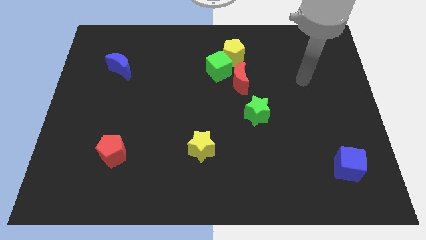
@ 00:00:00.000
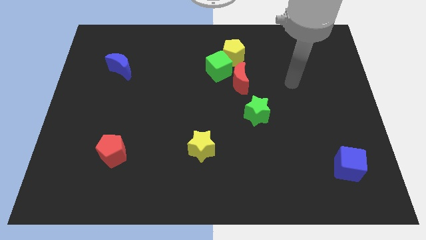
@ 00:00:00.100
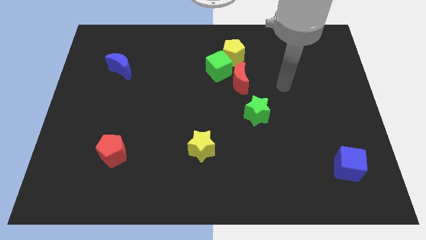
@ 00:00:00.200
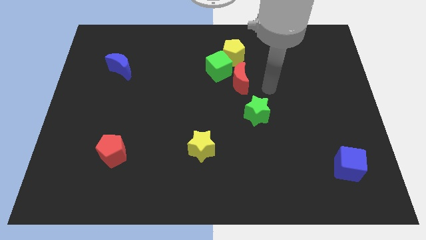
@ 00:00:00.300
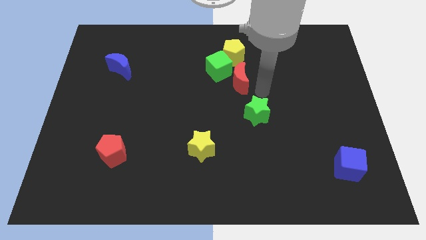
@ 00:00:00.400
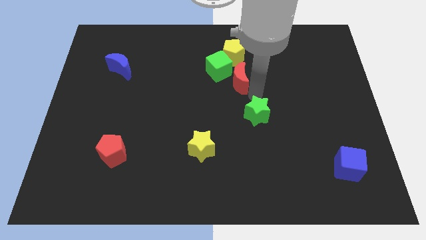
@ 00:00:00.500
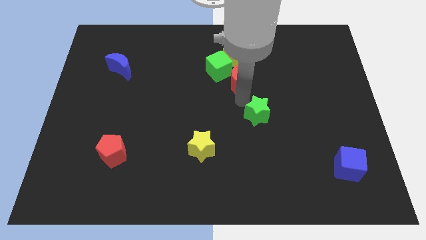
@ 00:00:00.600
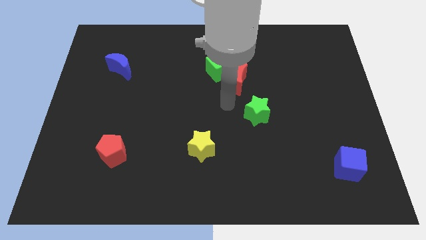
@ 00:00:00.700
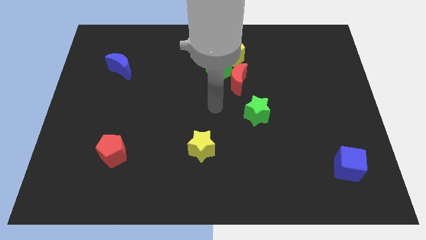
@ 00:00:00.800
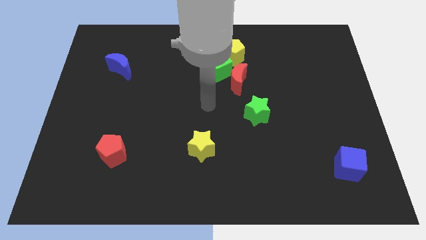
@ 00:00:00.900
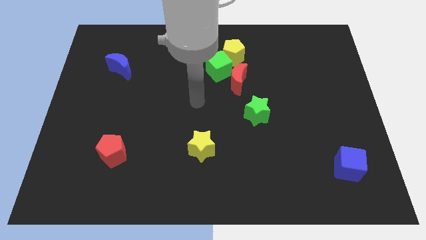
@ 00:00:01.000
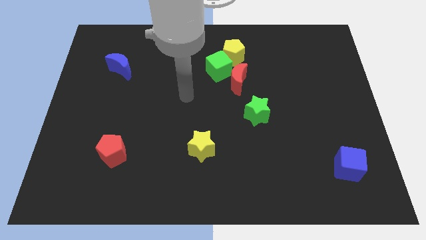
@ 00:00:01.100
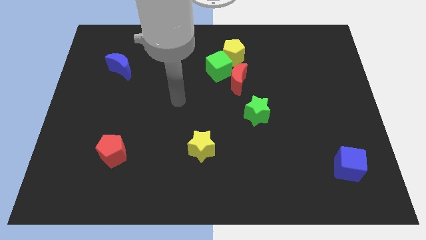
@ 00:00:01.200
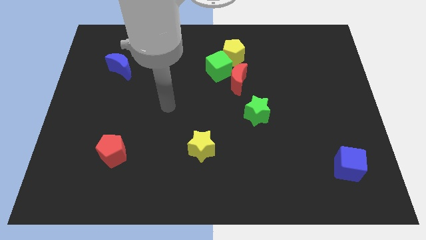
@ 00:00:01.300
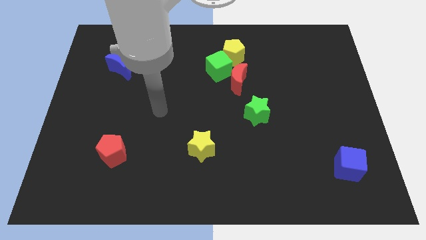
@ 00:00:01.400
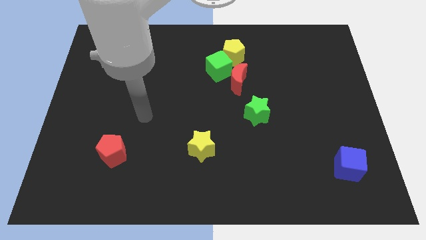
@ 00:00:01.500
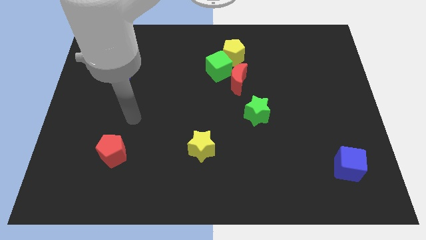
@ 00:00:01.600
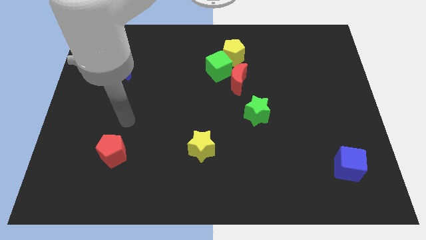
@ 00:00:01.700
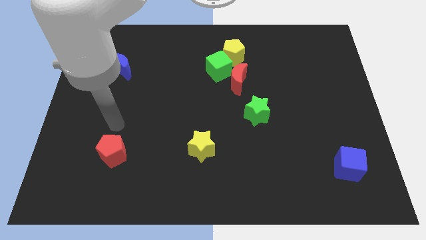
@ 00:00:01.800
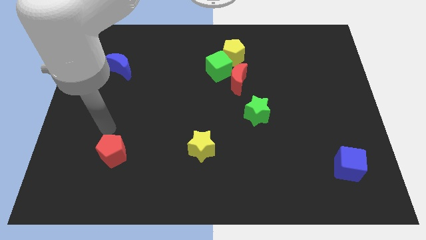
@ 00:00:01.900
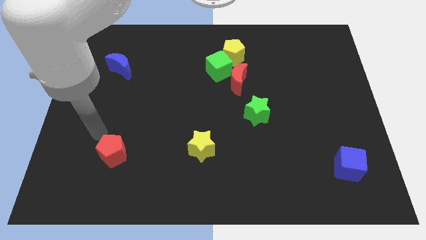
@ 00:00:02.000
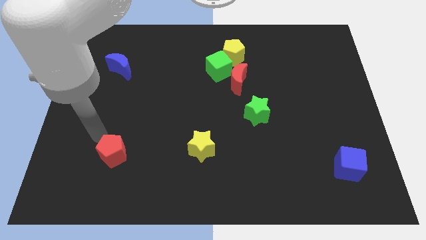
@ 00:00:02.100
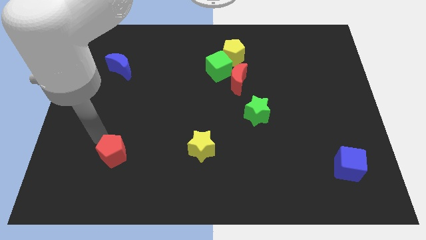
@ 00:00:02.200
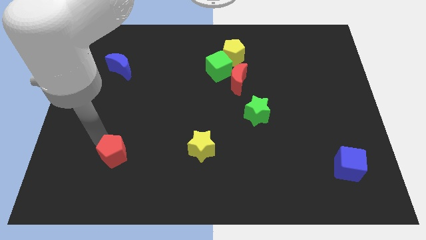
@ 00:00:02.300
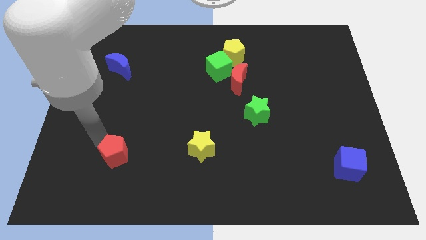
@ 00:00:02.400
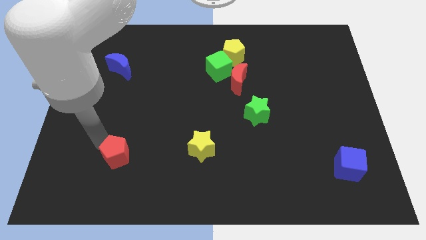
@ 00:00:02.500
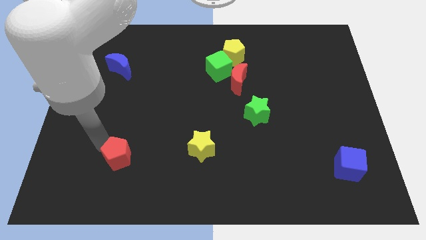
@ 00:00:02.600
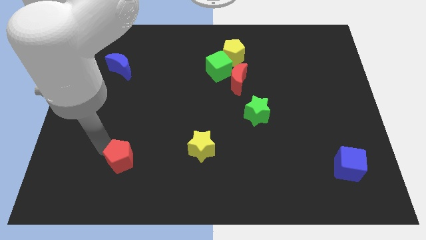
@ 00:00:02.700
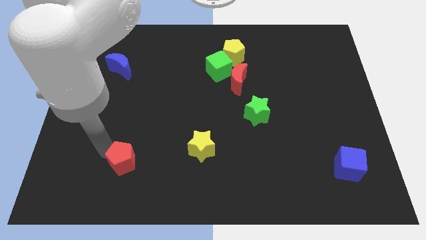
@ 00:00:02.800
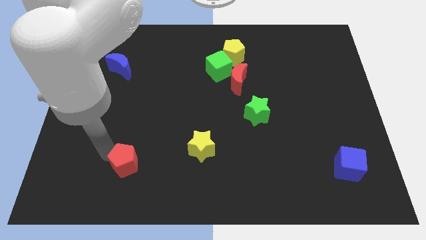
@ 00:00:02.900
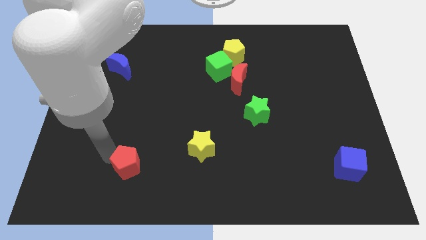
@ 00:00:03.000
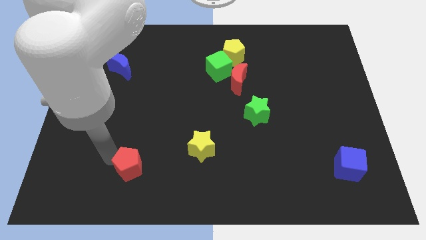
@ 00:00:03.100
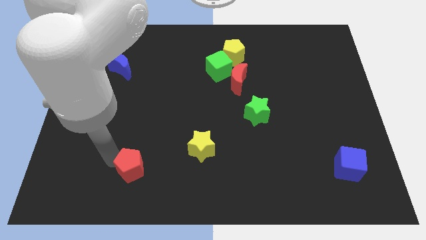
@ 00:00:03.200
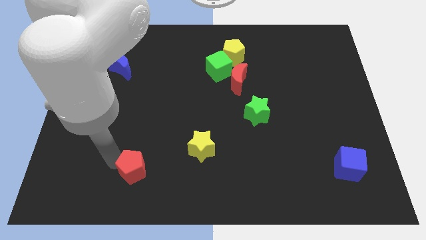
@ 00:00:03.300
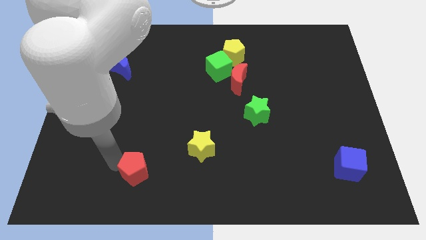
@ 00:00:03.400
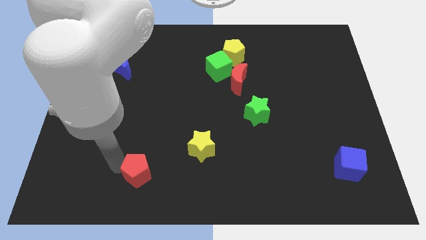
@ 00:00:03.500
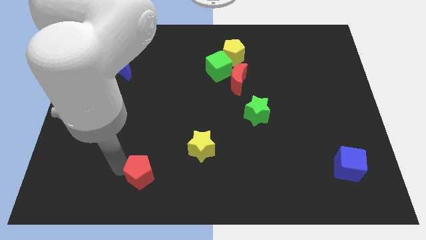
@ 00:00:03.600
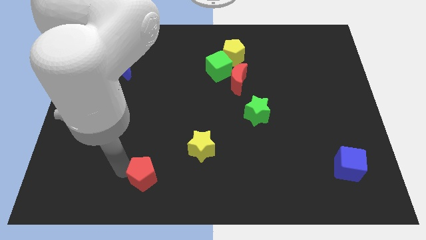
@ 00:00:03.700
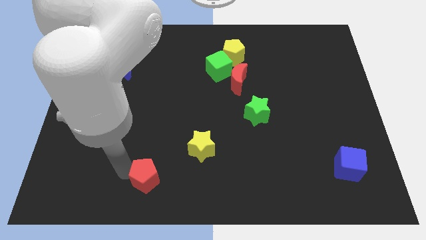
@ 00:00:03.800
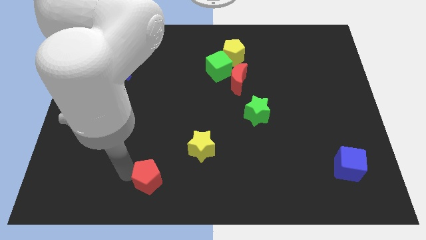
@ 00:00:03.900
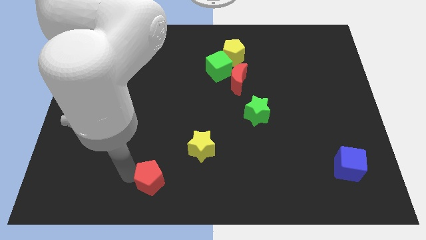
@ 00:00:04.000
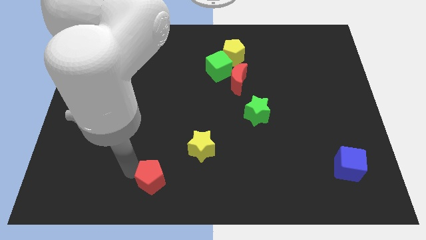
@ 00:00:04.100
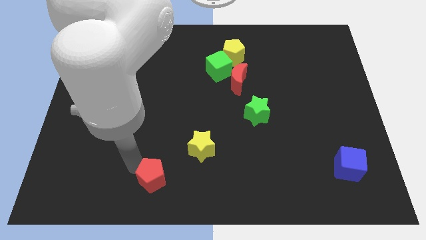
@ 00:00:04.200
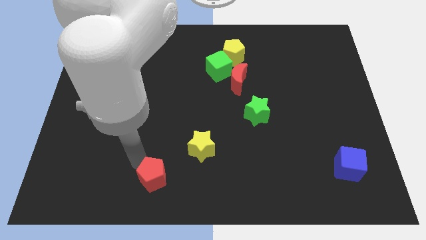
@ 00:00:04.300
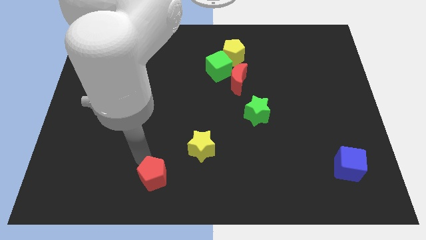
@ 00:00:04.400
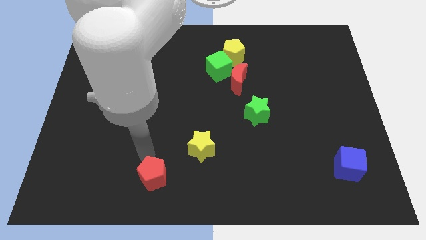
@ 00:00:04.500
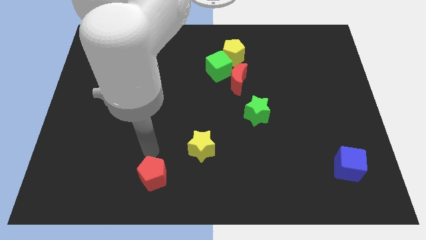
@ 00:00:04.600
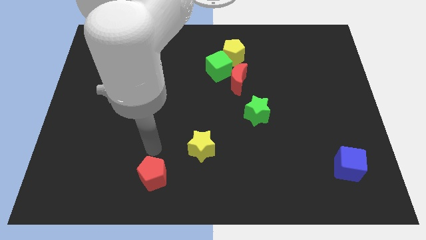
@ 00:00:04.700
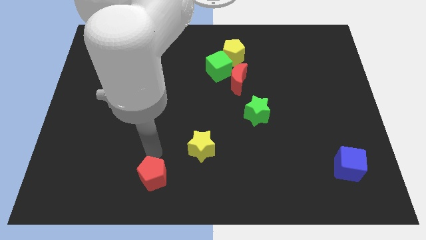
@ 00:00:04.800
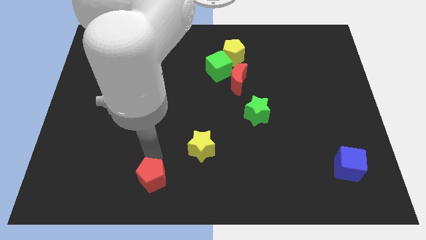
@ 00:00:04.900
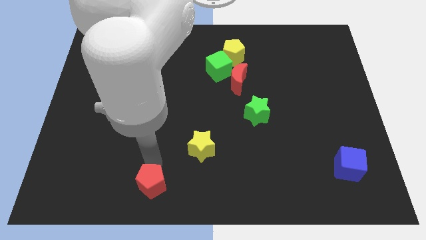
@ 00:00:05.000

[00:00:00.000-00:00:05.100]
slide the red pentagon to the bottom

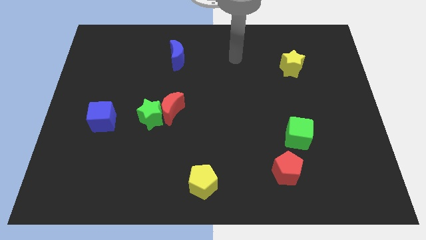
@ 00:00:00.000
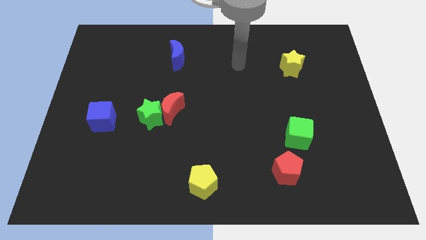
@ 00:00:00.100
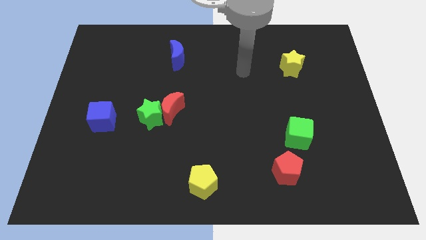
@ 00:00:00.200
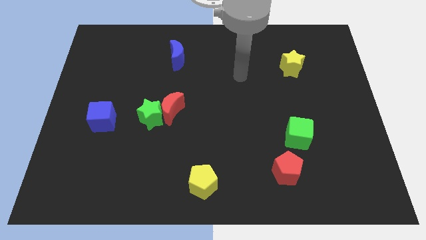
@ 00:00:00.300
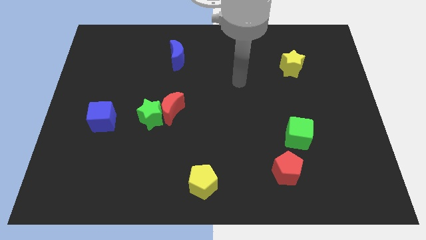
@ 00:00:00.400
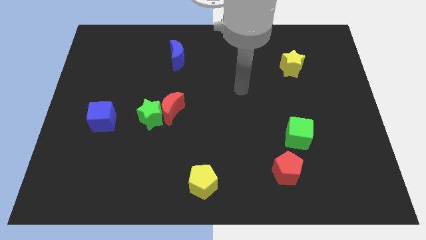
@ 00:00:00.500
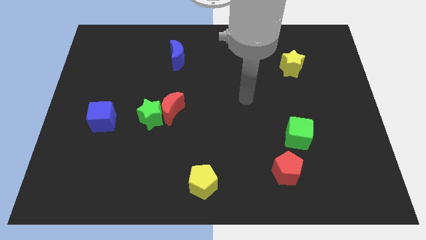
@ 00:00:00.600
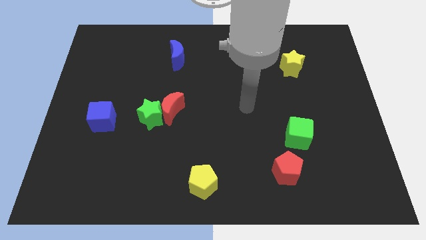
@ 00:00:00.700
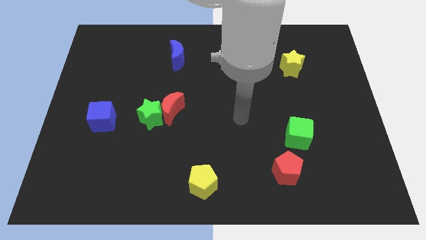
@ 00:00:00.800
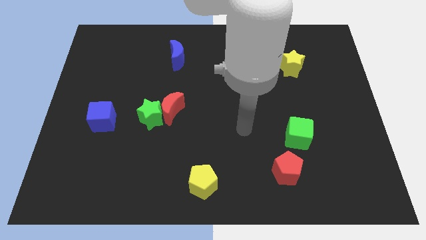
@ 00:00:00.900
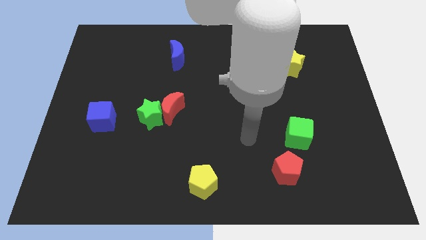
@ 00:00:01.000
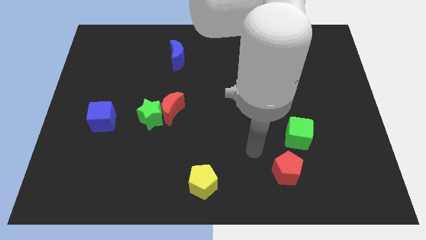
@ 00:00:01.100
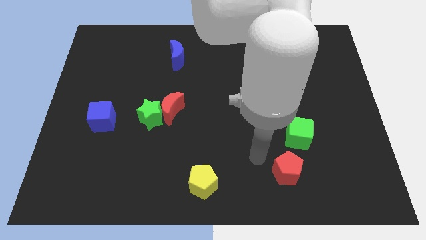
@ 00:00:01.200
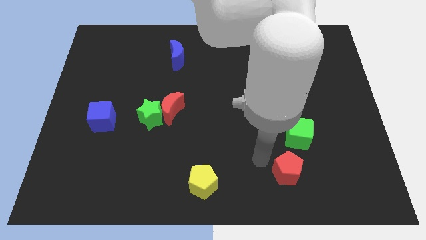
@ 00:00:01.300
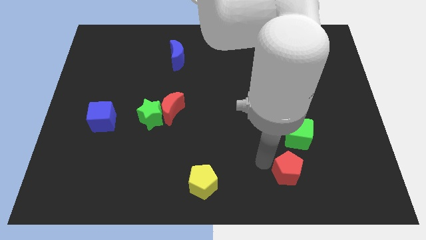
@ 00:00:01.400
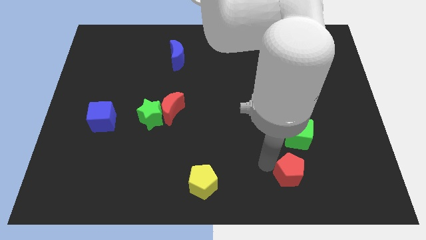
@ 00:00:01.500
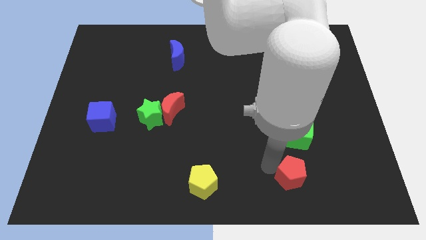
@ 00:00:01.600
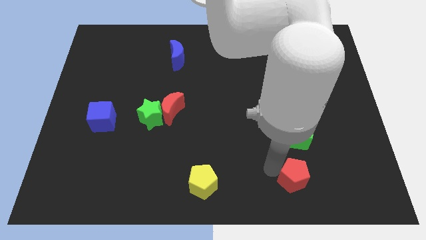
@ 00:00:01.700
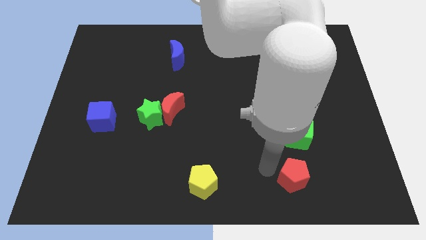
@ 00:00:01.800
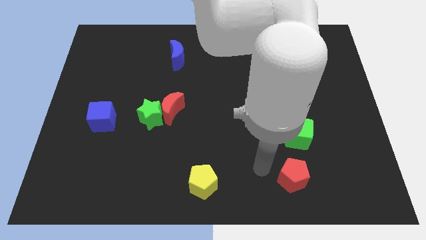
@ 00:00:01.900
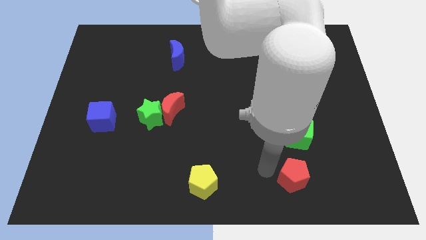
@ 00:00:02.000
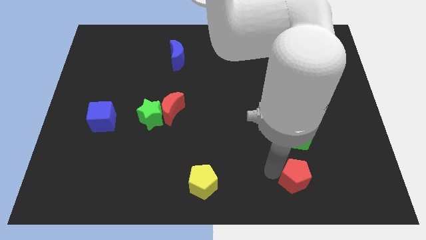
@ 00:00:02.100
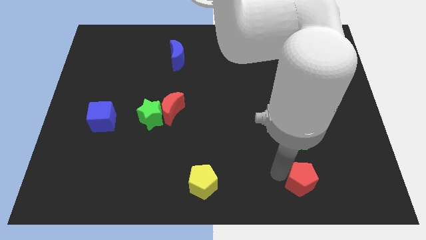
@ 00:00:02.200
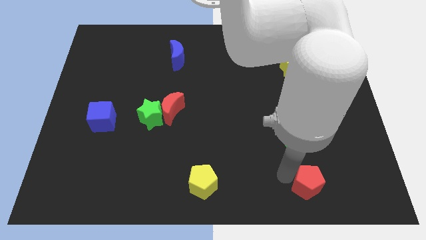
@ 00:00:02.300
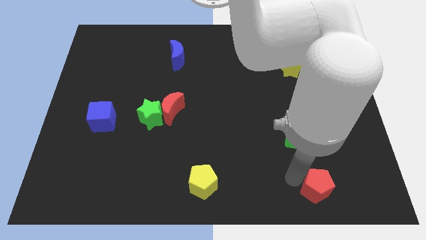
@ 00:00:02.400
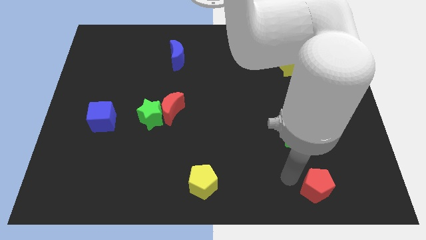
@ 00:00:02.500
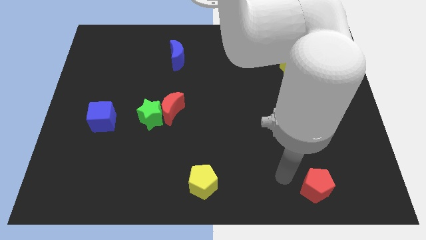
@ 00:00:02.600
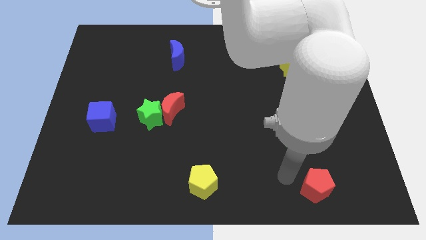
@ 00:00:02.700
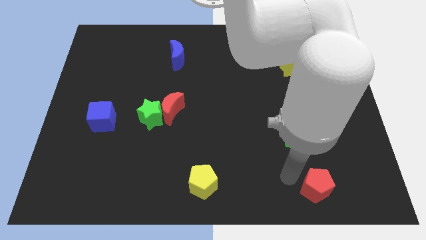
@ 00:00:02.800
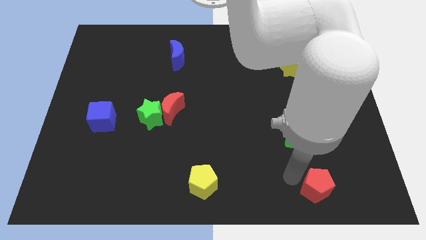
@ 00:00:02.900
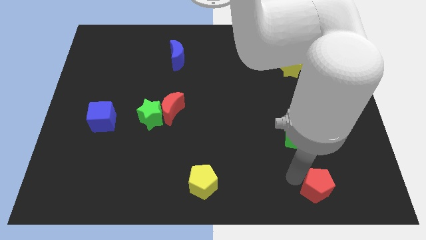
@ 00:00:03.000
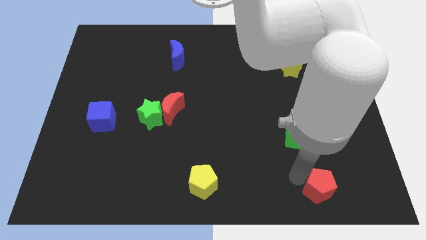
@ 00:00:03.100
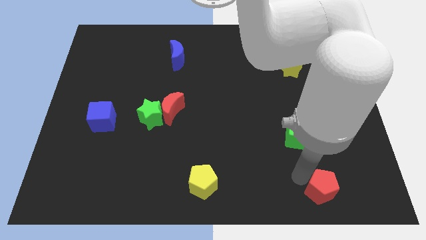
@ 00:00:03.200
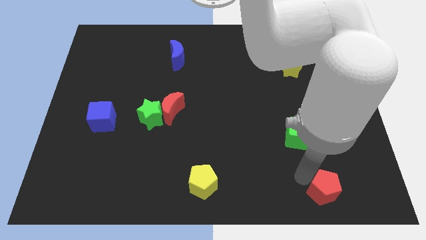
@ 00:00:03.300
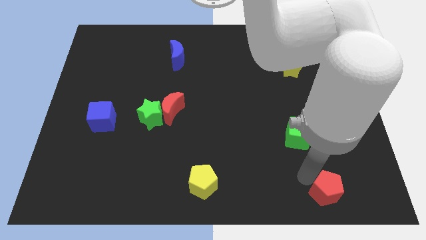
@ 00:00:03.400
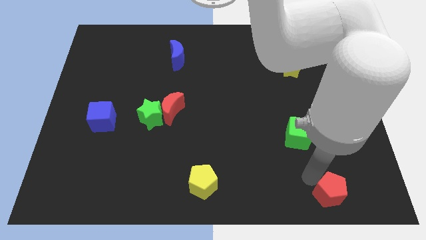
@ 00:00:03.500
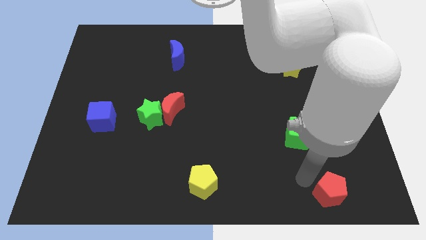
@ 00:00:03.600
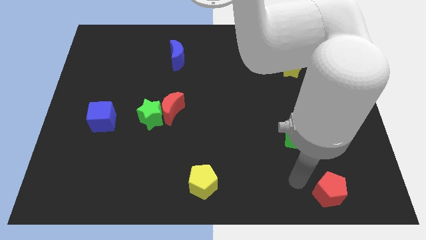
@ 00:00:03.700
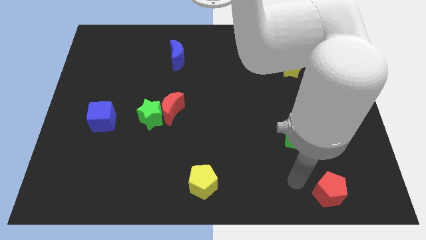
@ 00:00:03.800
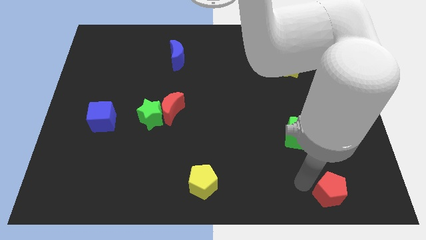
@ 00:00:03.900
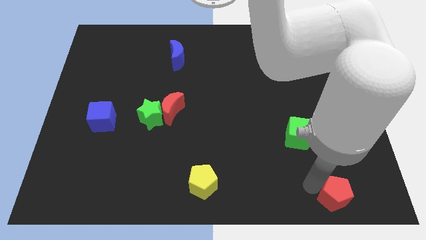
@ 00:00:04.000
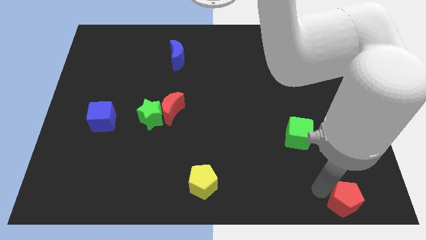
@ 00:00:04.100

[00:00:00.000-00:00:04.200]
put the red pentagon to the bottom right of the board
